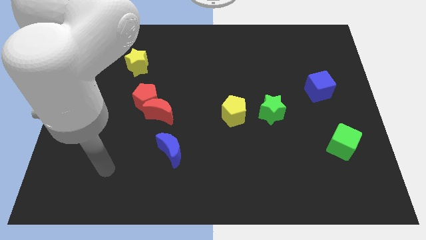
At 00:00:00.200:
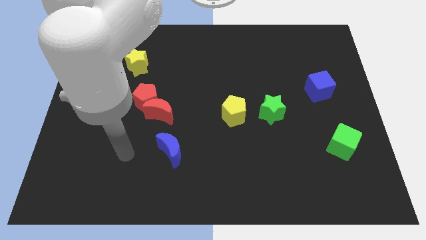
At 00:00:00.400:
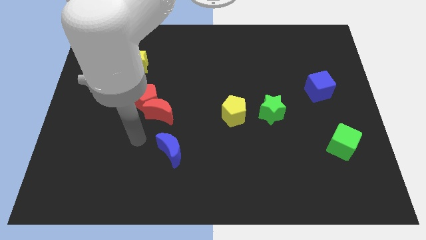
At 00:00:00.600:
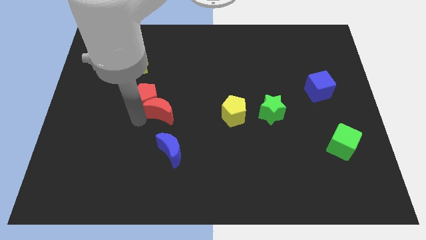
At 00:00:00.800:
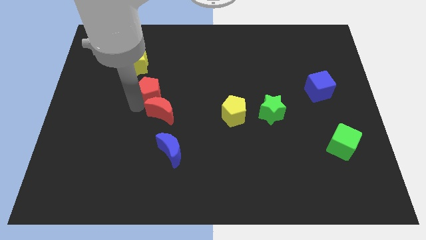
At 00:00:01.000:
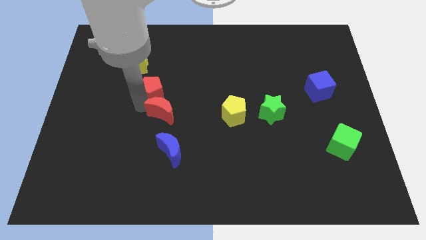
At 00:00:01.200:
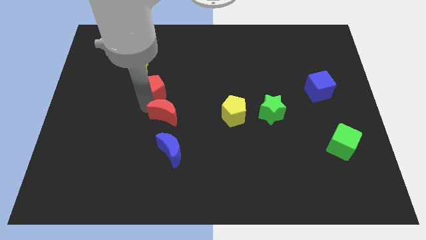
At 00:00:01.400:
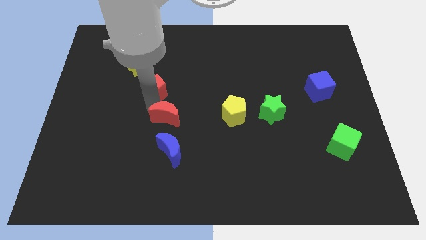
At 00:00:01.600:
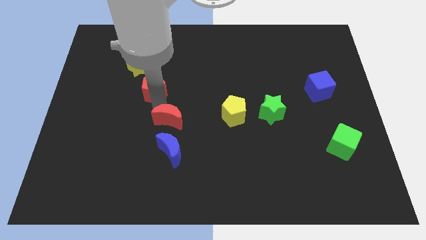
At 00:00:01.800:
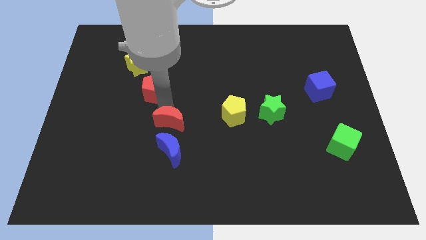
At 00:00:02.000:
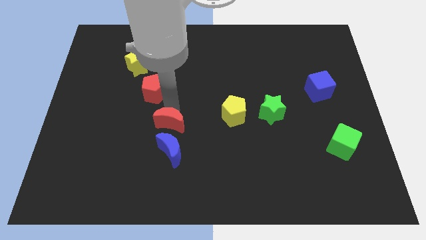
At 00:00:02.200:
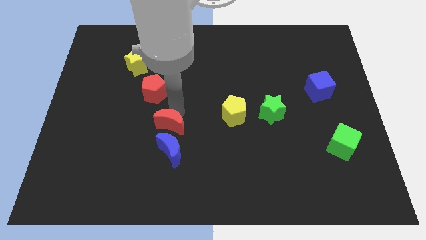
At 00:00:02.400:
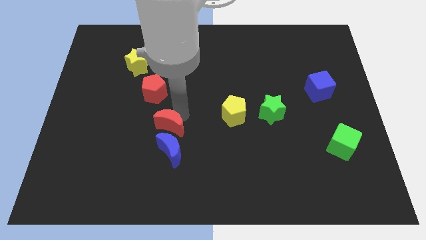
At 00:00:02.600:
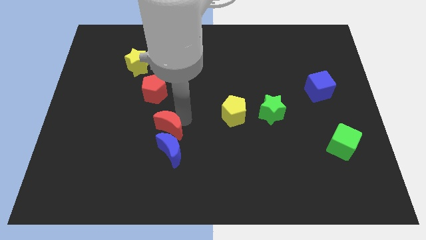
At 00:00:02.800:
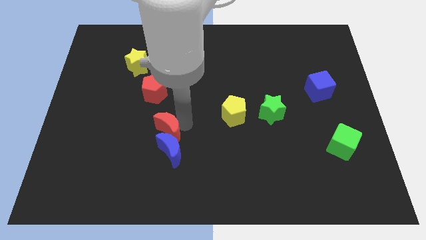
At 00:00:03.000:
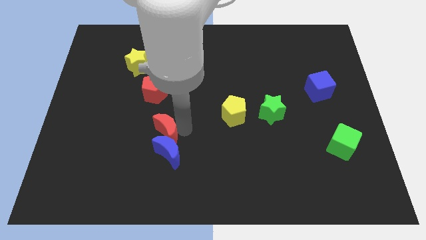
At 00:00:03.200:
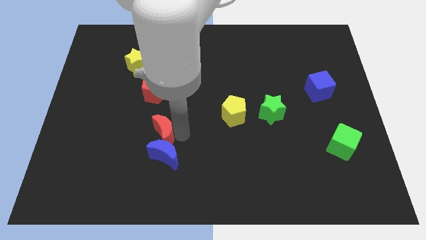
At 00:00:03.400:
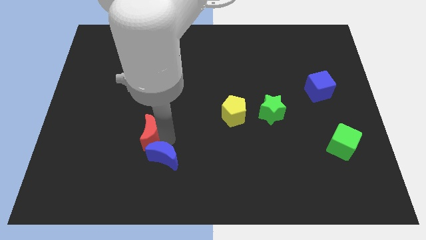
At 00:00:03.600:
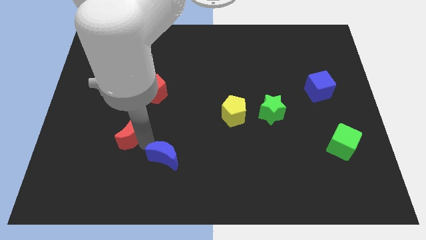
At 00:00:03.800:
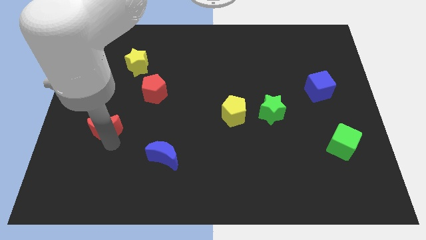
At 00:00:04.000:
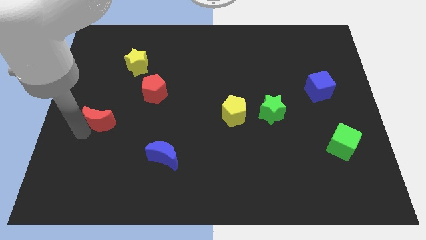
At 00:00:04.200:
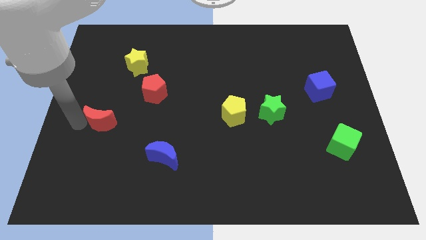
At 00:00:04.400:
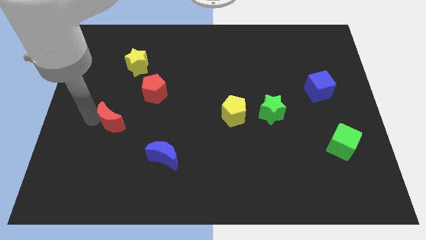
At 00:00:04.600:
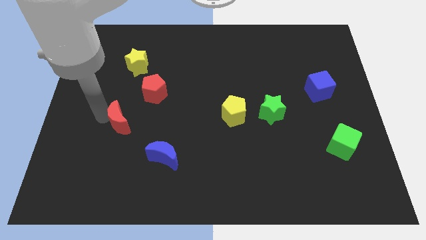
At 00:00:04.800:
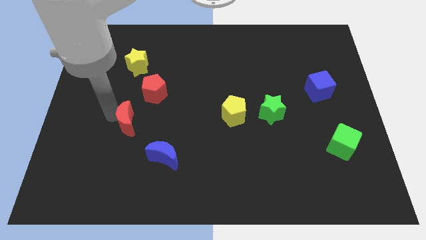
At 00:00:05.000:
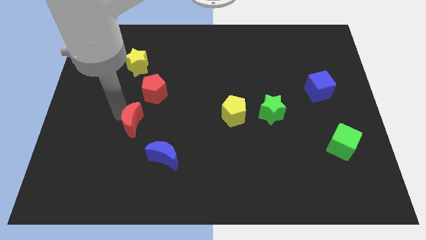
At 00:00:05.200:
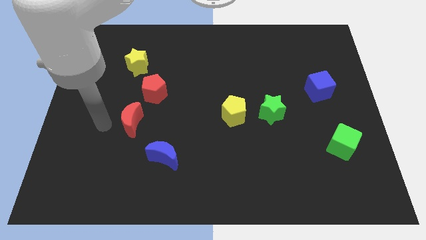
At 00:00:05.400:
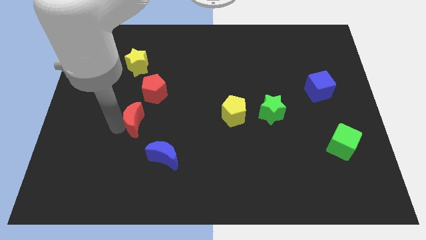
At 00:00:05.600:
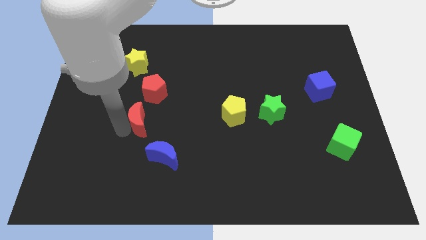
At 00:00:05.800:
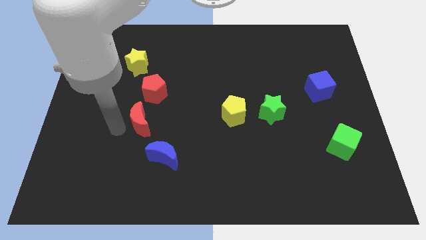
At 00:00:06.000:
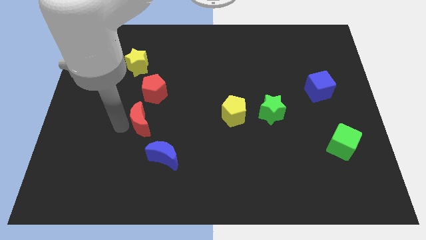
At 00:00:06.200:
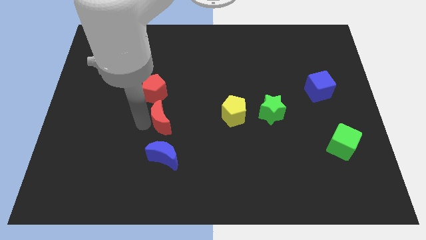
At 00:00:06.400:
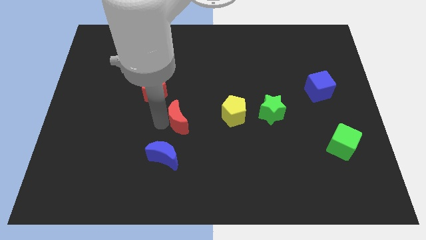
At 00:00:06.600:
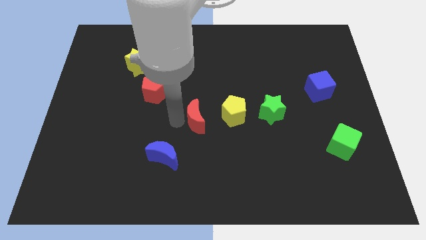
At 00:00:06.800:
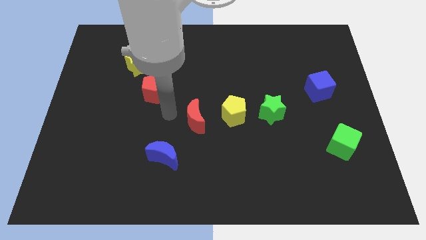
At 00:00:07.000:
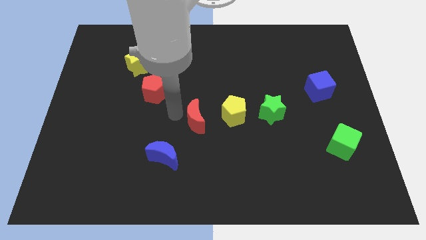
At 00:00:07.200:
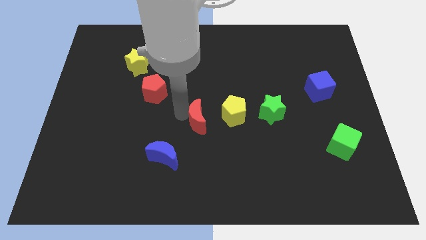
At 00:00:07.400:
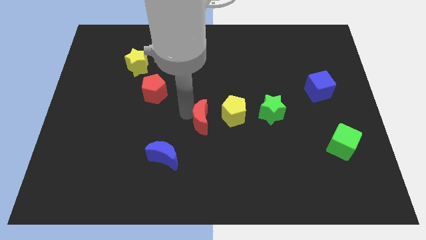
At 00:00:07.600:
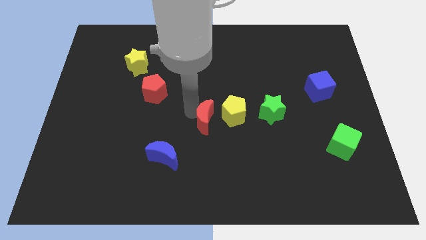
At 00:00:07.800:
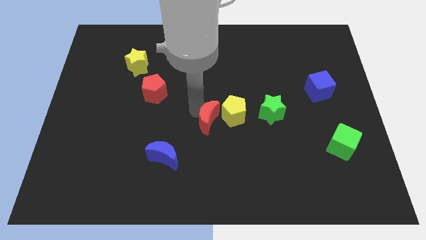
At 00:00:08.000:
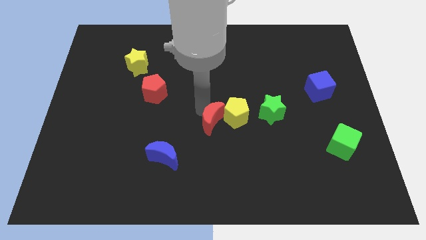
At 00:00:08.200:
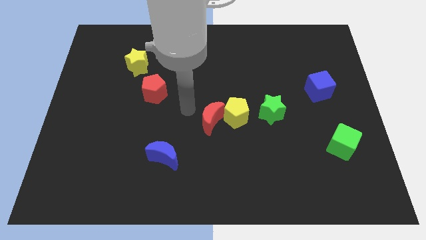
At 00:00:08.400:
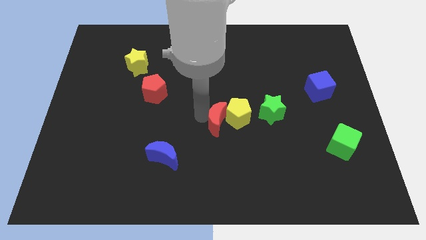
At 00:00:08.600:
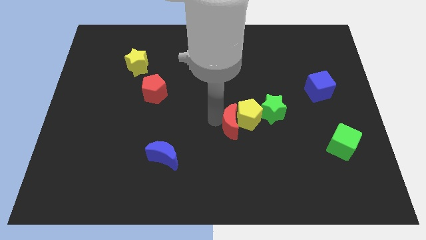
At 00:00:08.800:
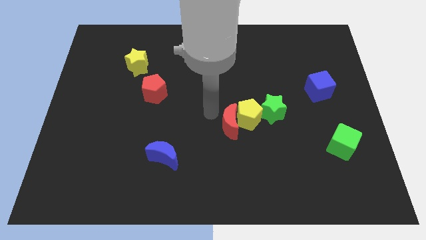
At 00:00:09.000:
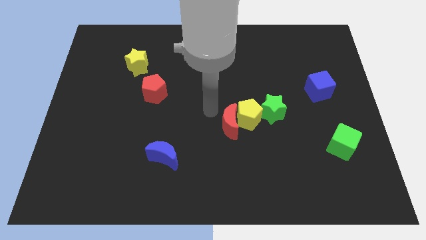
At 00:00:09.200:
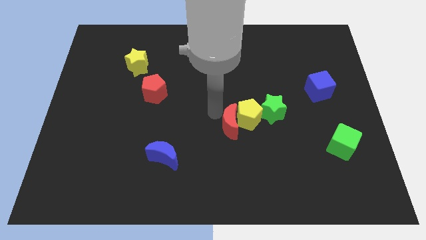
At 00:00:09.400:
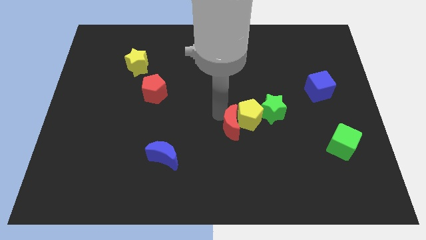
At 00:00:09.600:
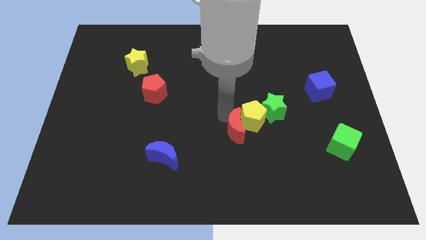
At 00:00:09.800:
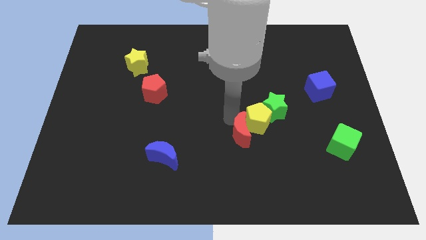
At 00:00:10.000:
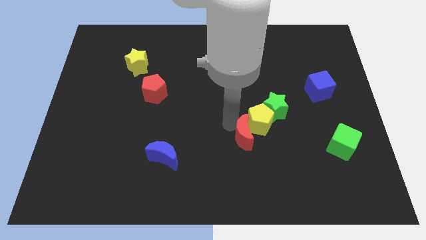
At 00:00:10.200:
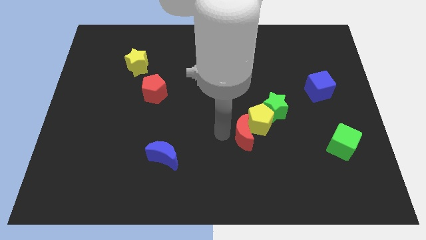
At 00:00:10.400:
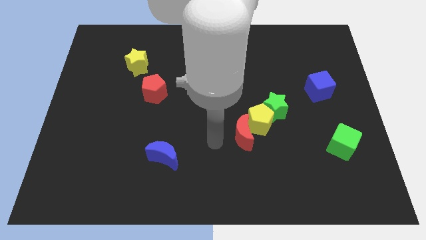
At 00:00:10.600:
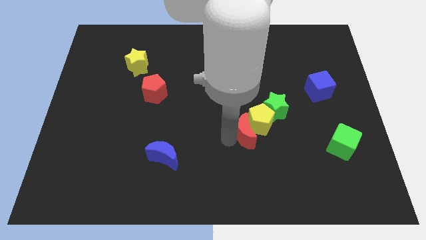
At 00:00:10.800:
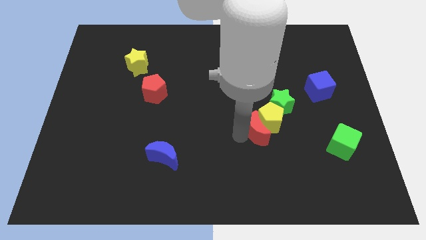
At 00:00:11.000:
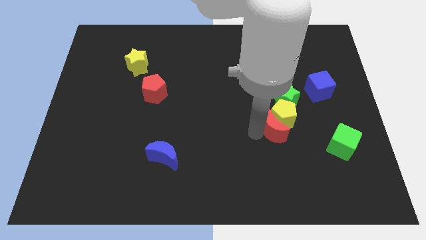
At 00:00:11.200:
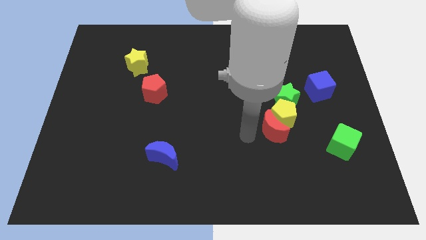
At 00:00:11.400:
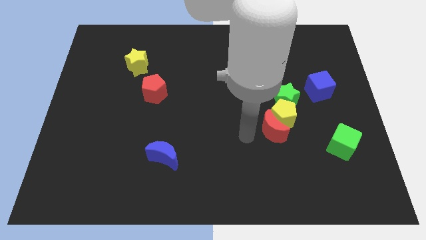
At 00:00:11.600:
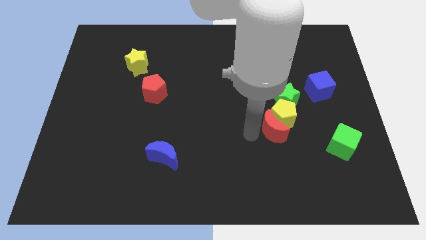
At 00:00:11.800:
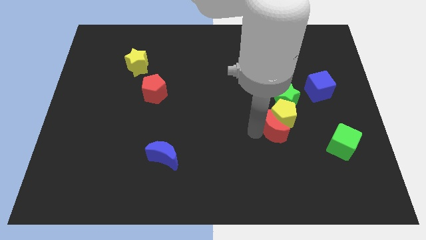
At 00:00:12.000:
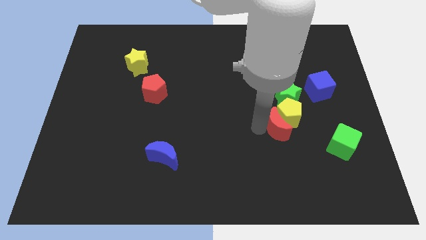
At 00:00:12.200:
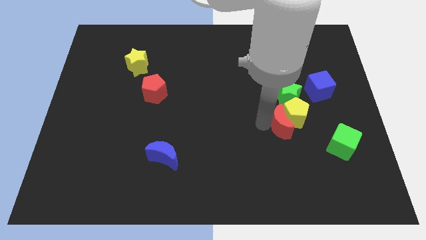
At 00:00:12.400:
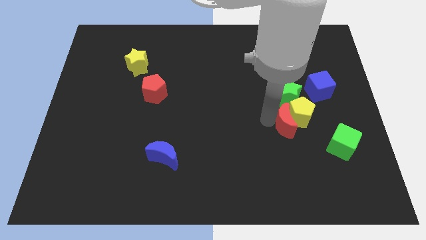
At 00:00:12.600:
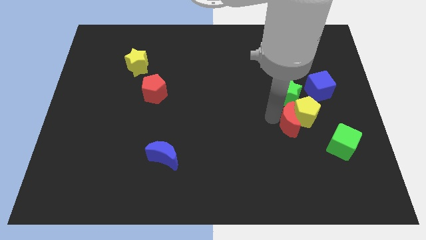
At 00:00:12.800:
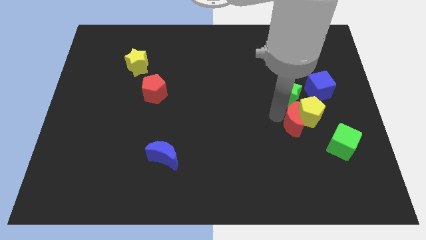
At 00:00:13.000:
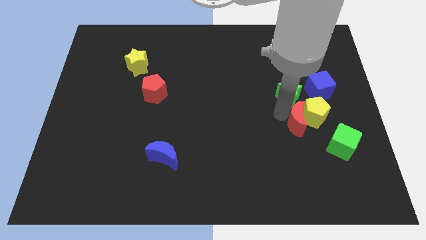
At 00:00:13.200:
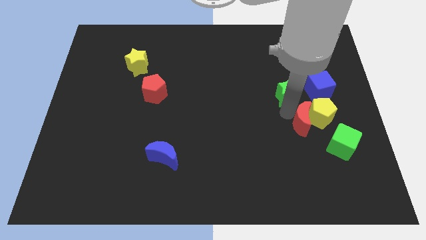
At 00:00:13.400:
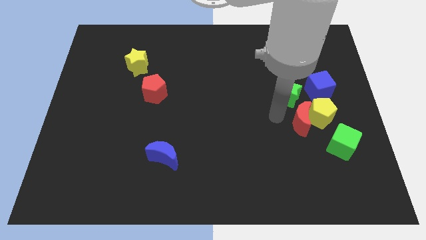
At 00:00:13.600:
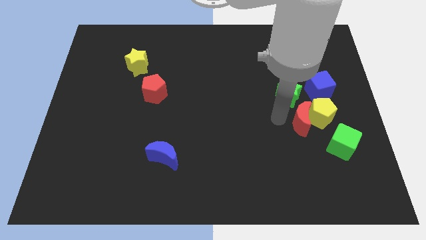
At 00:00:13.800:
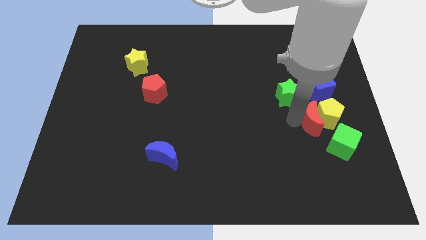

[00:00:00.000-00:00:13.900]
slide the red moon below the blue cube
